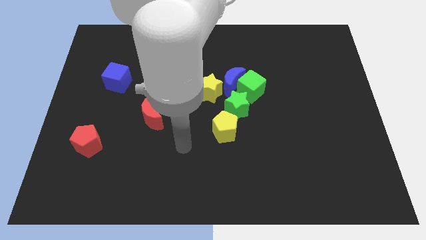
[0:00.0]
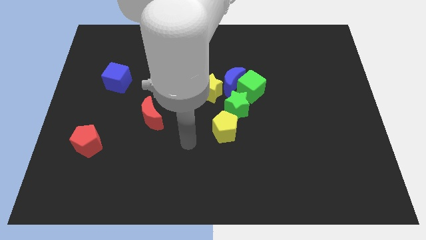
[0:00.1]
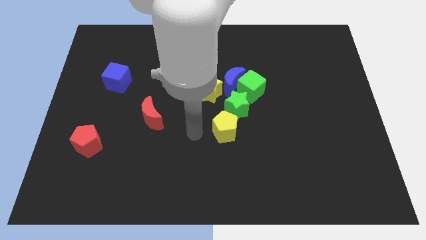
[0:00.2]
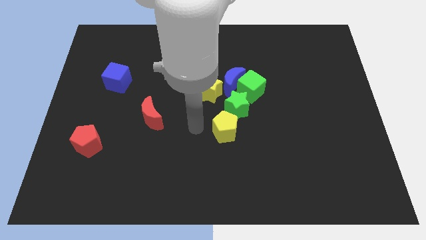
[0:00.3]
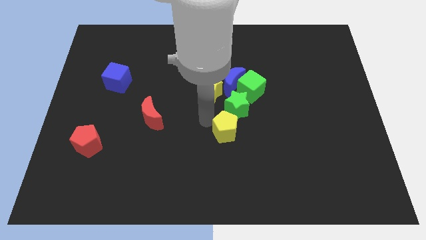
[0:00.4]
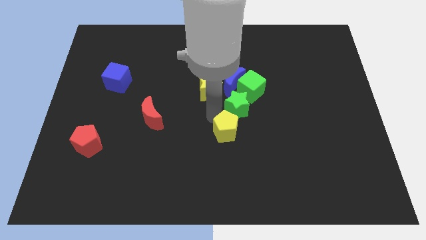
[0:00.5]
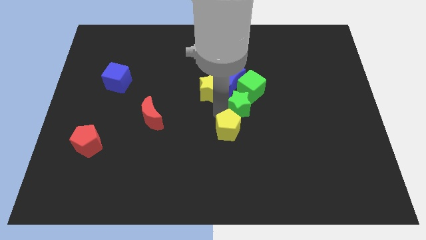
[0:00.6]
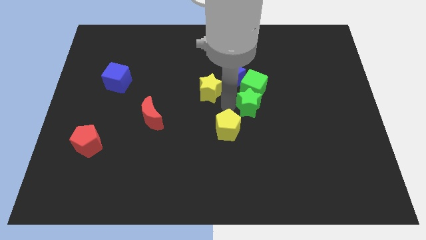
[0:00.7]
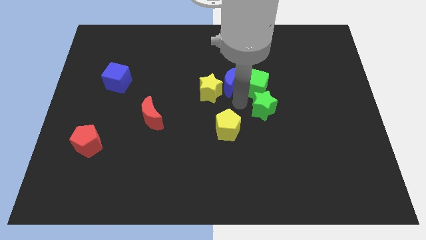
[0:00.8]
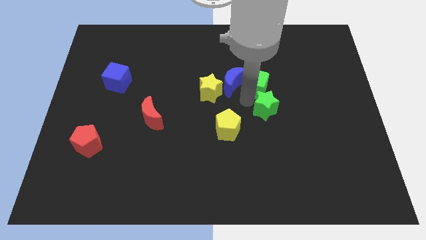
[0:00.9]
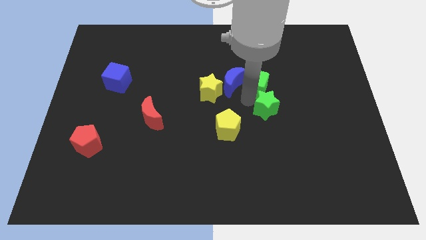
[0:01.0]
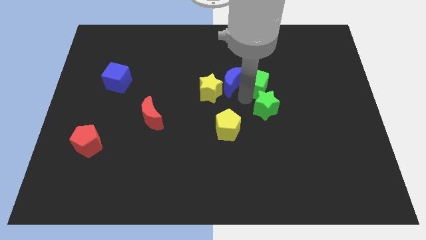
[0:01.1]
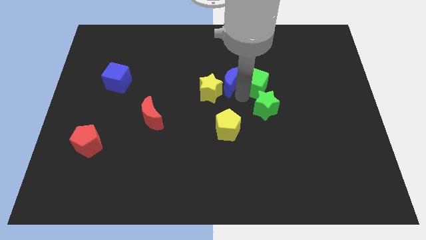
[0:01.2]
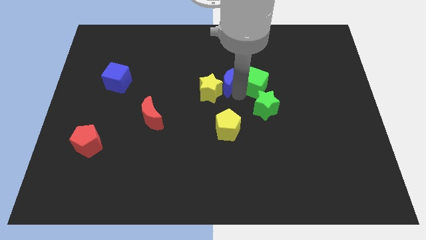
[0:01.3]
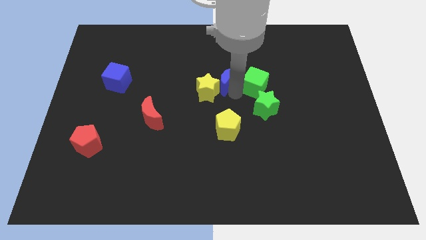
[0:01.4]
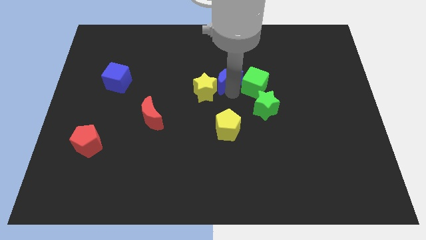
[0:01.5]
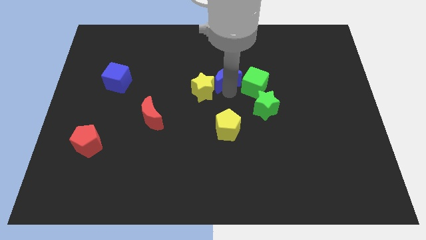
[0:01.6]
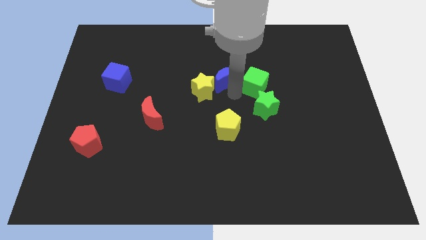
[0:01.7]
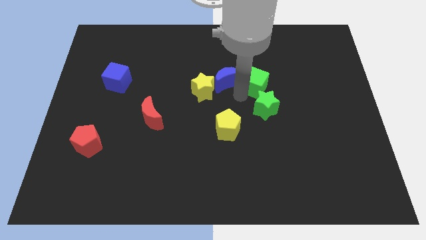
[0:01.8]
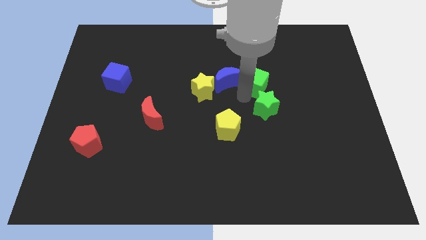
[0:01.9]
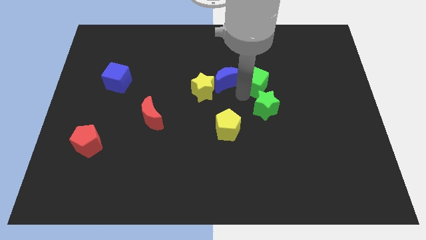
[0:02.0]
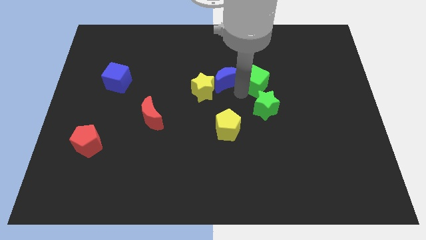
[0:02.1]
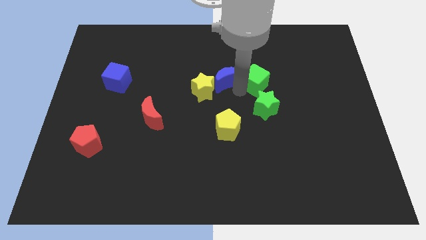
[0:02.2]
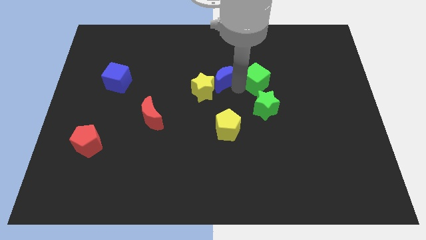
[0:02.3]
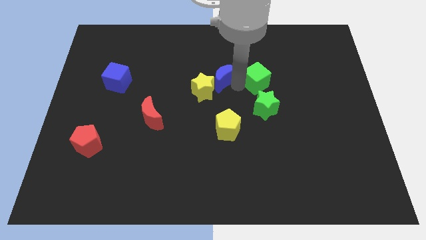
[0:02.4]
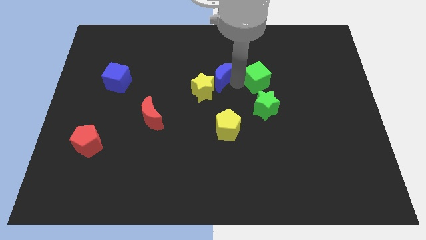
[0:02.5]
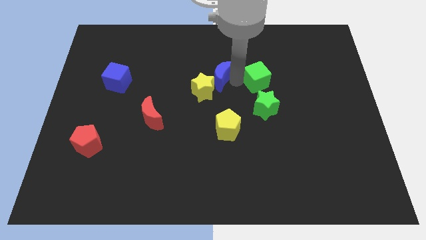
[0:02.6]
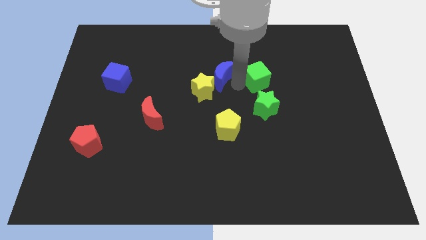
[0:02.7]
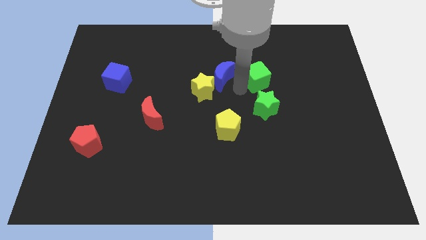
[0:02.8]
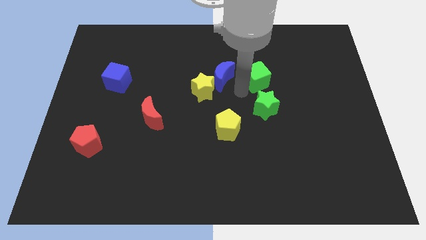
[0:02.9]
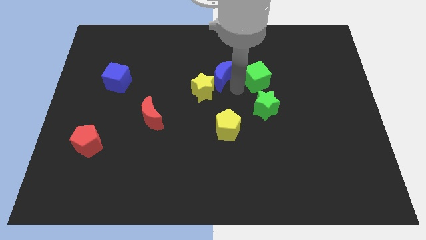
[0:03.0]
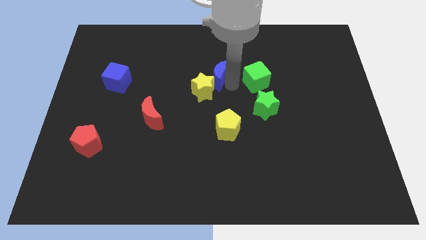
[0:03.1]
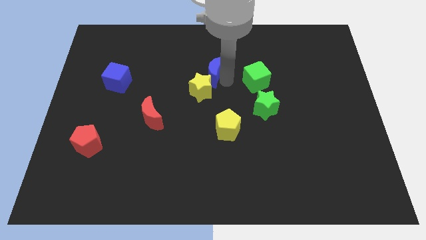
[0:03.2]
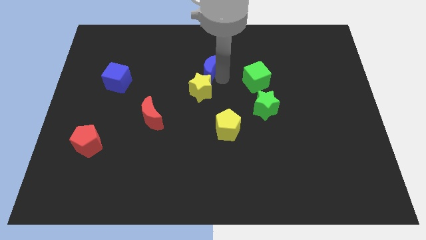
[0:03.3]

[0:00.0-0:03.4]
separate the blue moon from the green cube, yellow star, and green star

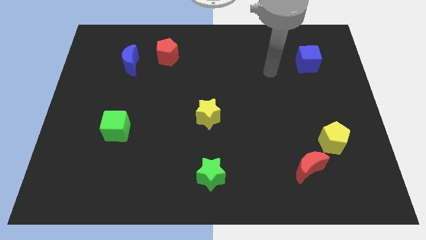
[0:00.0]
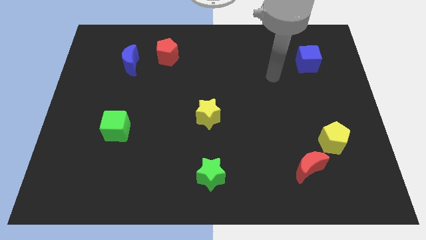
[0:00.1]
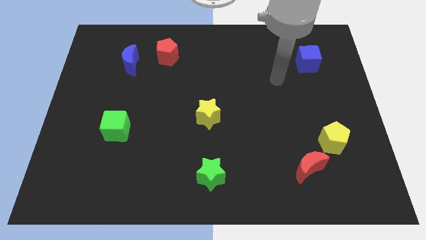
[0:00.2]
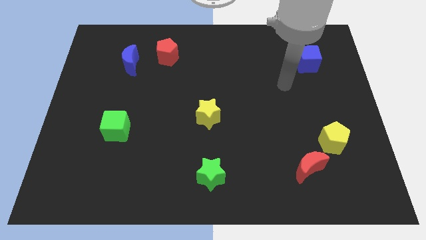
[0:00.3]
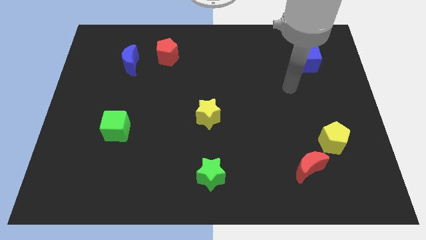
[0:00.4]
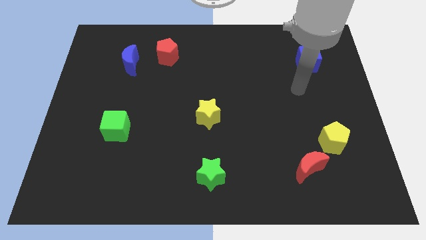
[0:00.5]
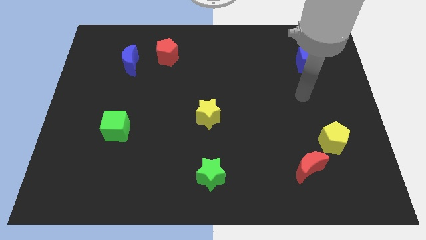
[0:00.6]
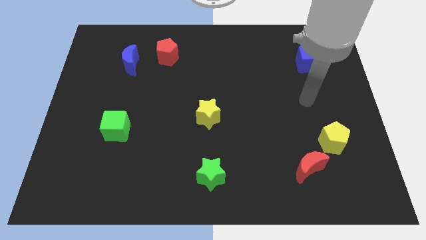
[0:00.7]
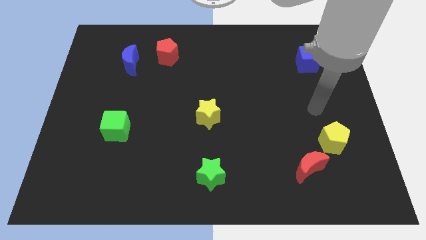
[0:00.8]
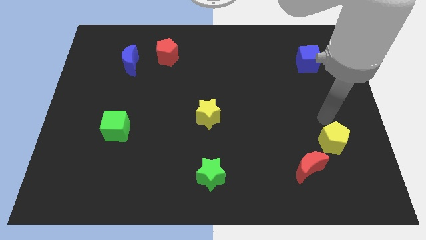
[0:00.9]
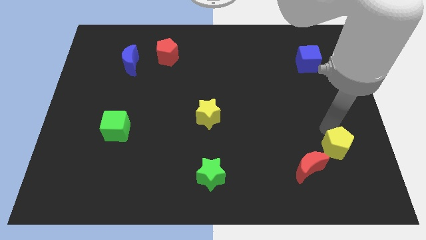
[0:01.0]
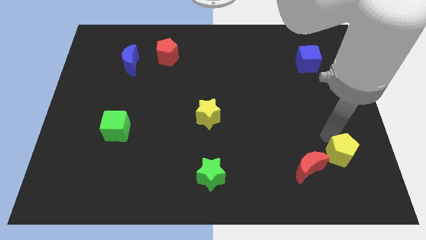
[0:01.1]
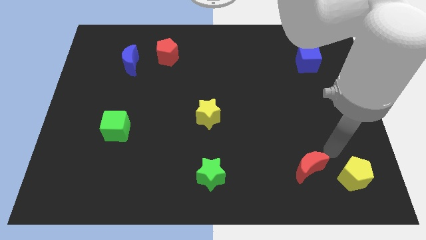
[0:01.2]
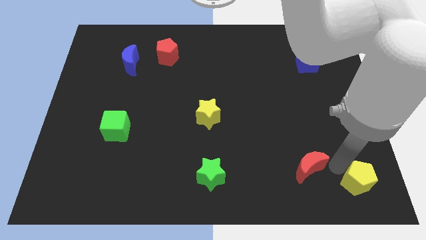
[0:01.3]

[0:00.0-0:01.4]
move the red moon away from the yellow pentagon

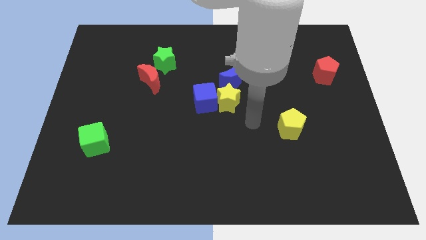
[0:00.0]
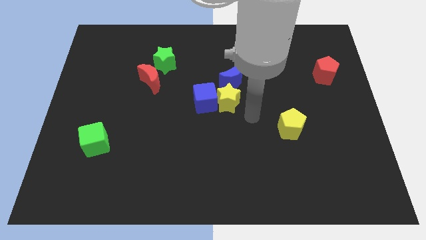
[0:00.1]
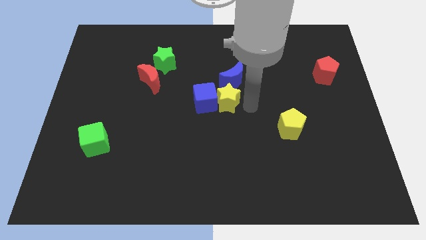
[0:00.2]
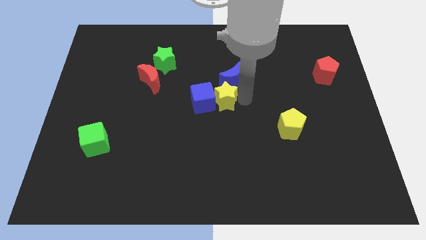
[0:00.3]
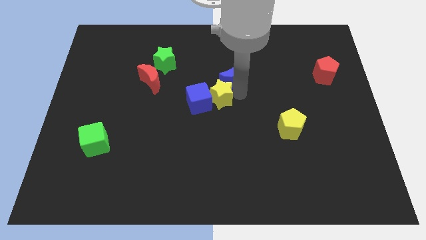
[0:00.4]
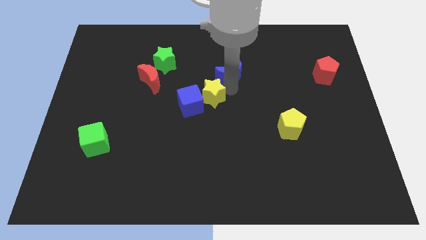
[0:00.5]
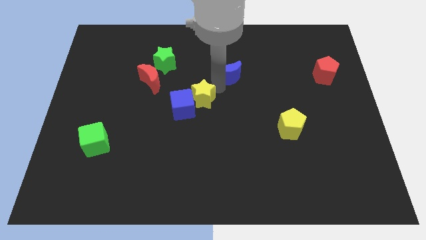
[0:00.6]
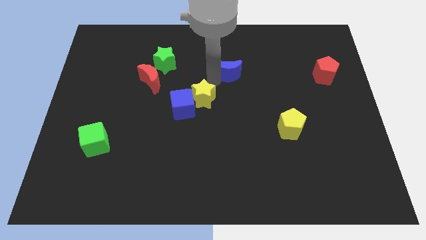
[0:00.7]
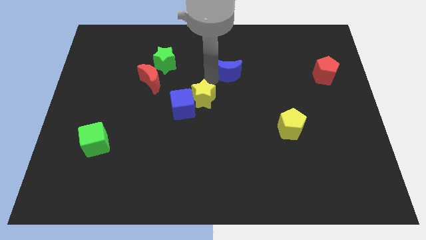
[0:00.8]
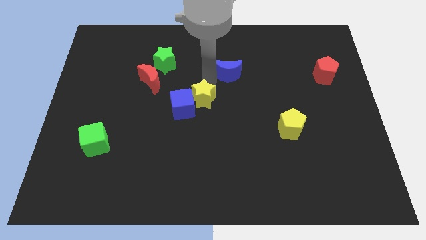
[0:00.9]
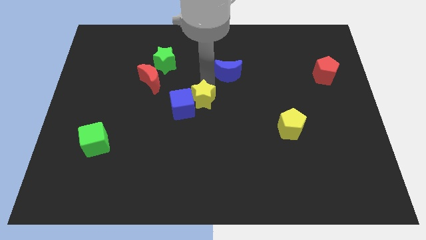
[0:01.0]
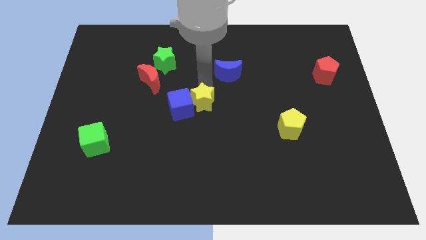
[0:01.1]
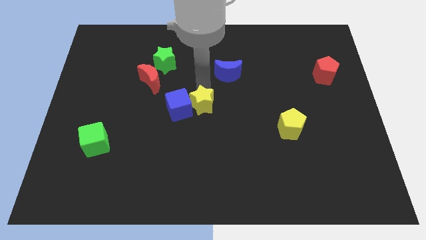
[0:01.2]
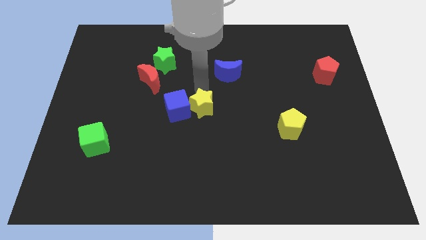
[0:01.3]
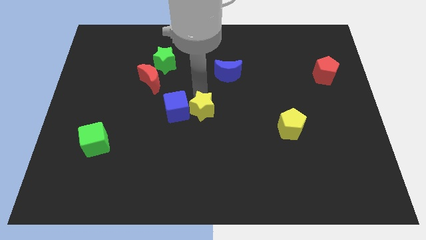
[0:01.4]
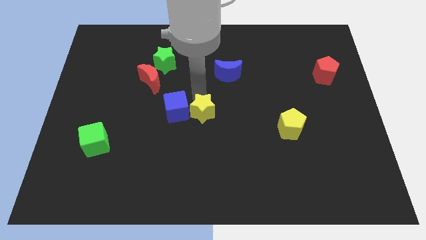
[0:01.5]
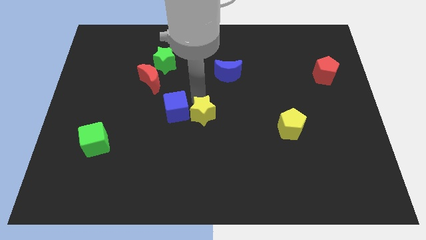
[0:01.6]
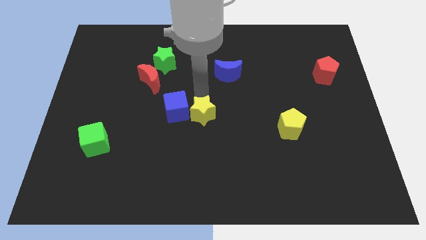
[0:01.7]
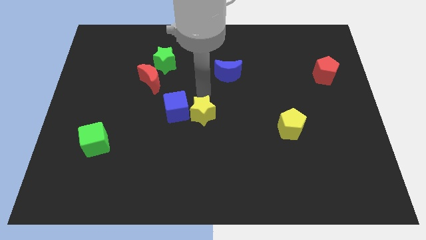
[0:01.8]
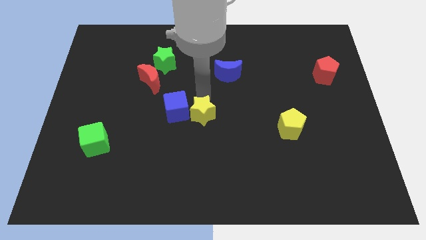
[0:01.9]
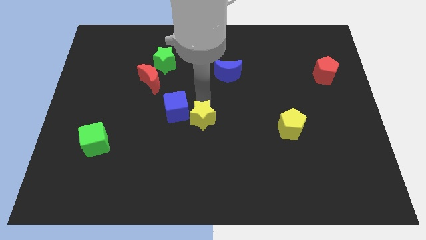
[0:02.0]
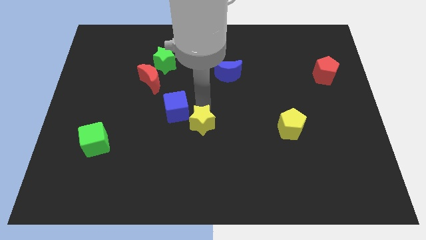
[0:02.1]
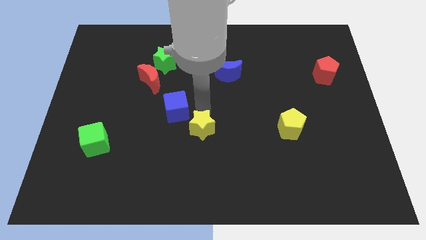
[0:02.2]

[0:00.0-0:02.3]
move the yellow star away from the blue cube and blue moon

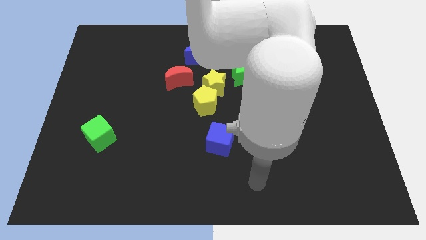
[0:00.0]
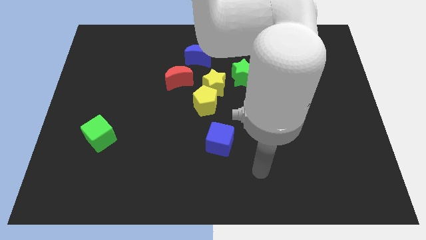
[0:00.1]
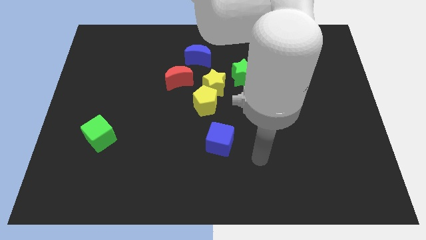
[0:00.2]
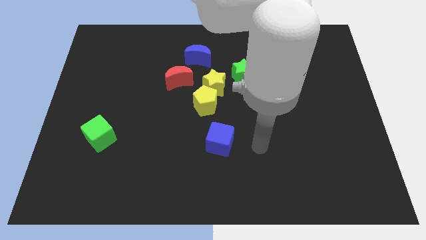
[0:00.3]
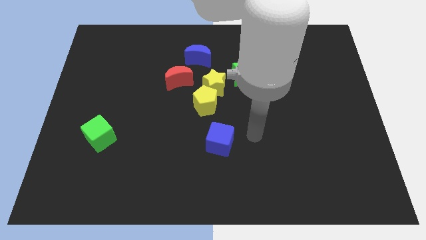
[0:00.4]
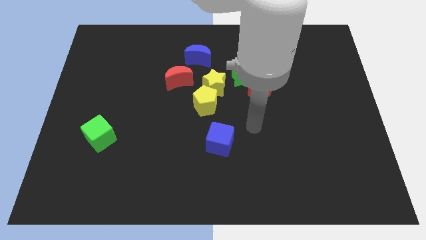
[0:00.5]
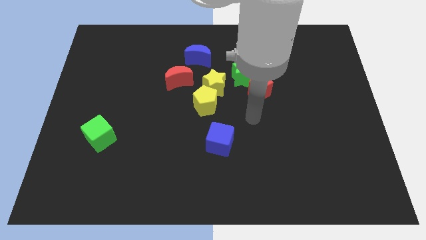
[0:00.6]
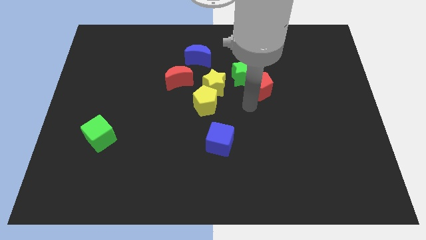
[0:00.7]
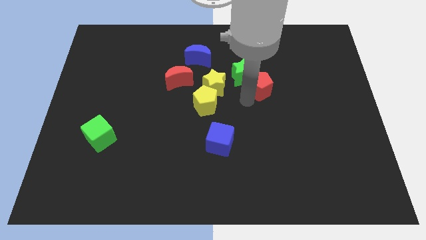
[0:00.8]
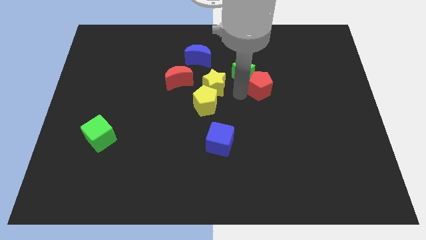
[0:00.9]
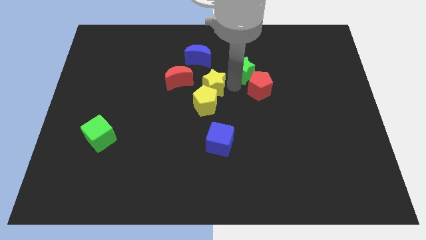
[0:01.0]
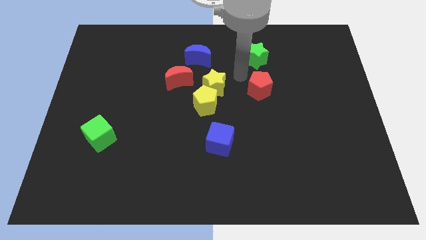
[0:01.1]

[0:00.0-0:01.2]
separate the red pentagon from the green star

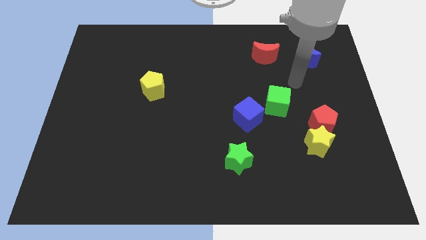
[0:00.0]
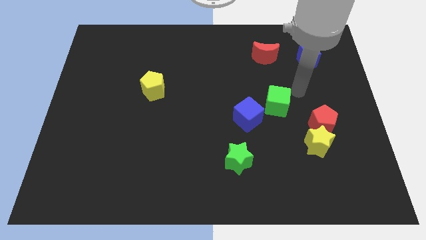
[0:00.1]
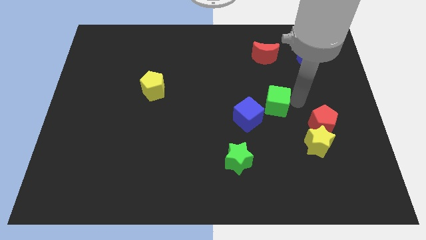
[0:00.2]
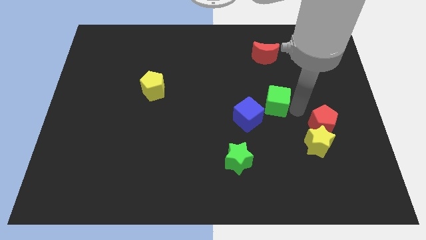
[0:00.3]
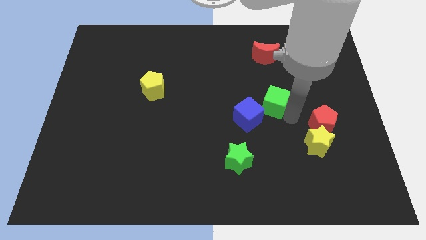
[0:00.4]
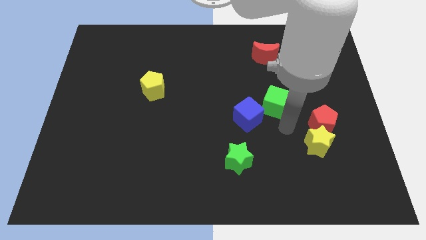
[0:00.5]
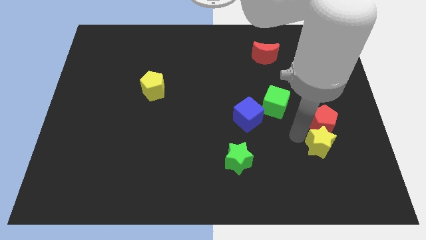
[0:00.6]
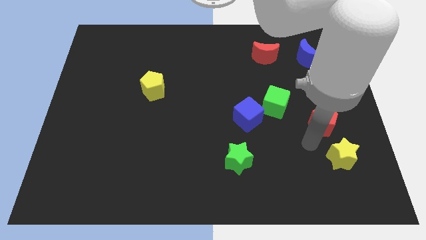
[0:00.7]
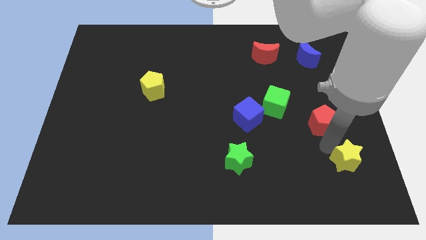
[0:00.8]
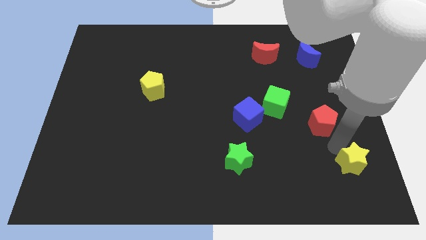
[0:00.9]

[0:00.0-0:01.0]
move the red pentagon away from the yellow star
